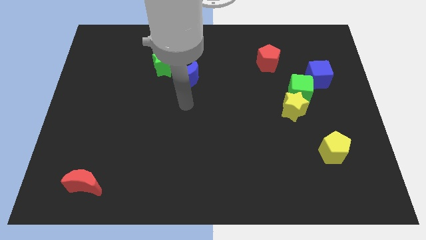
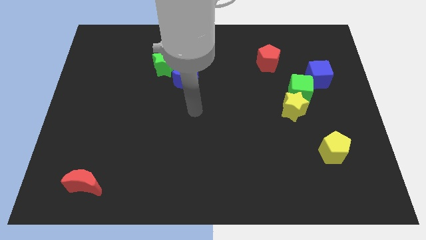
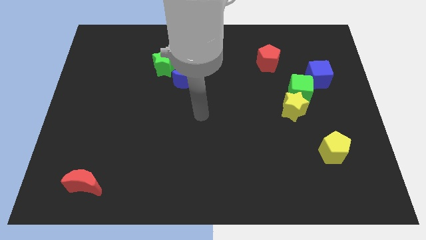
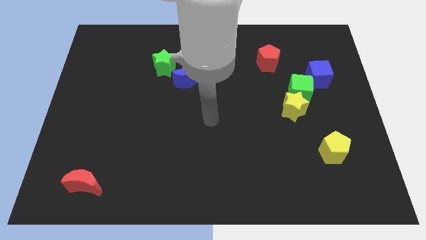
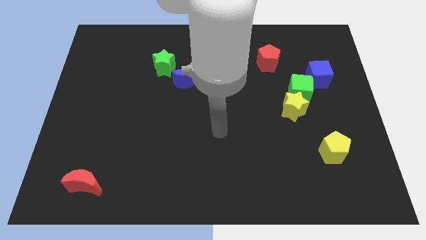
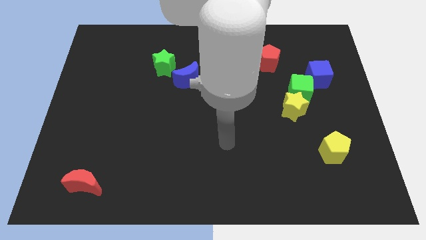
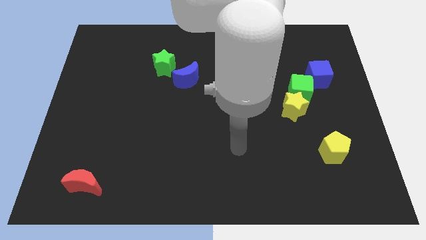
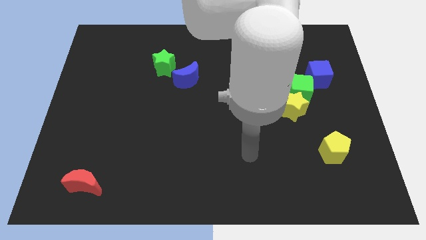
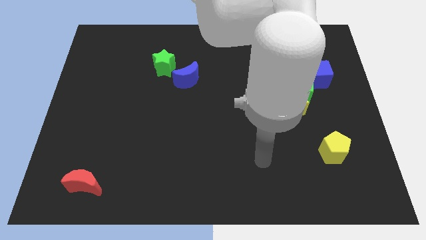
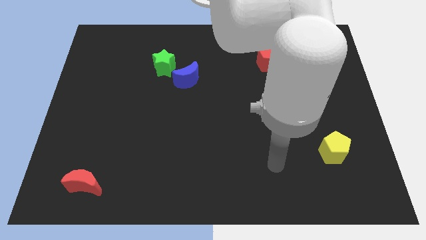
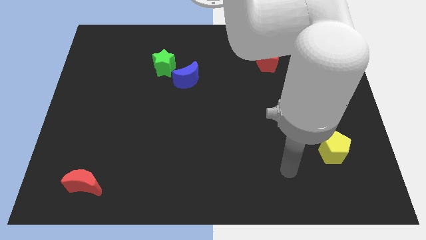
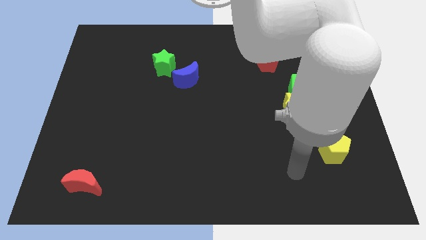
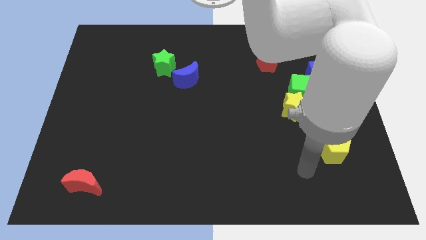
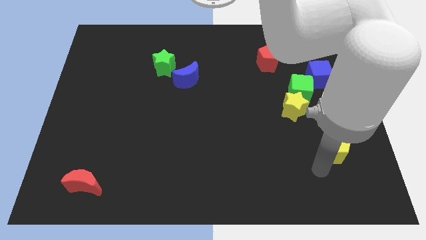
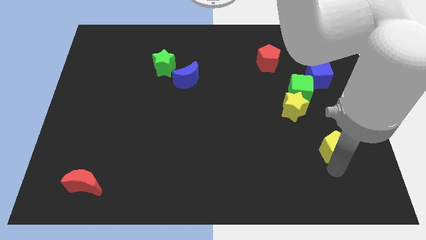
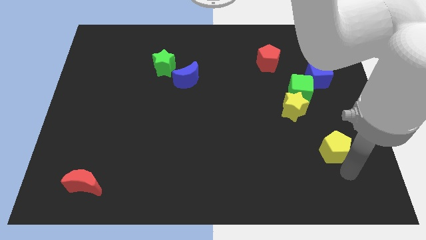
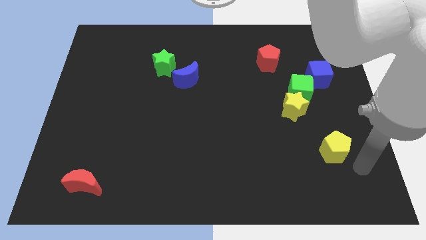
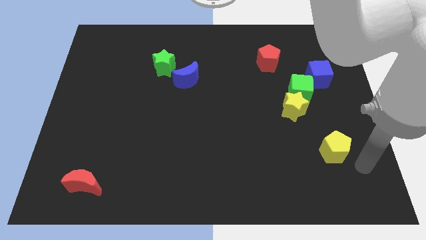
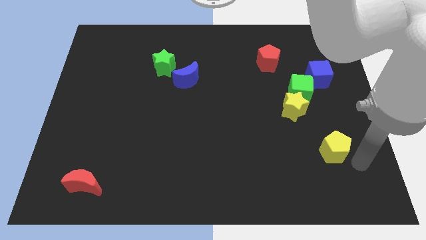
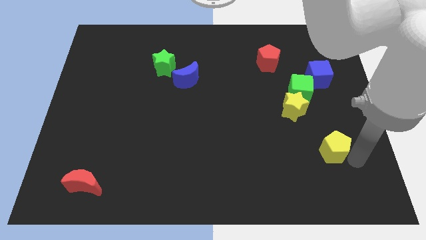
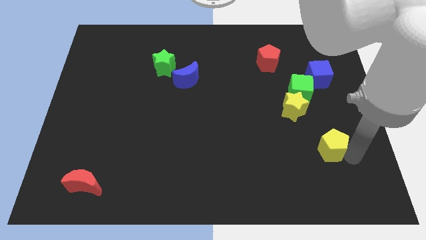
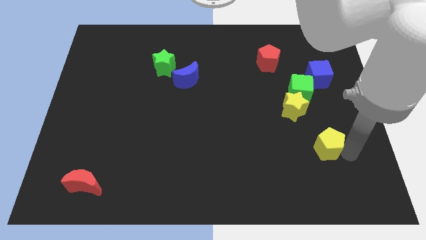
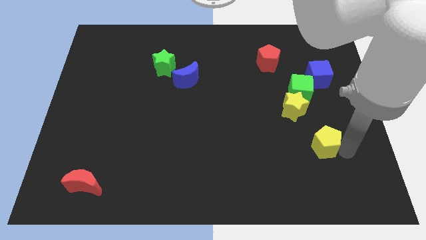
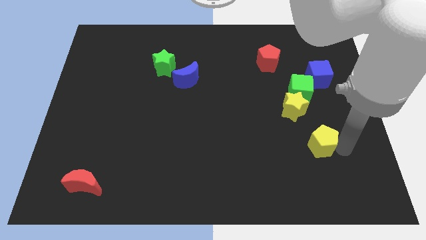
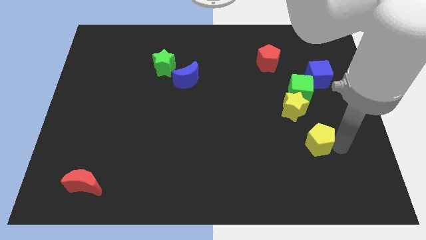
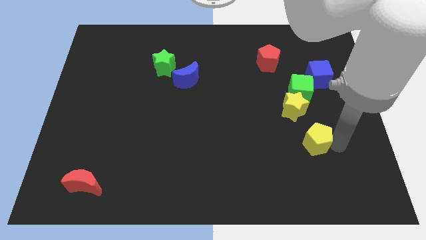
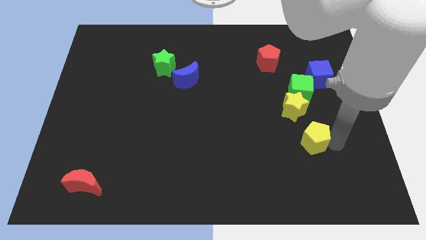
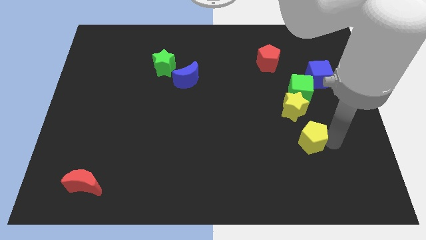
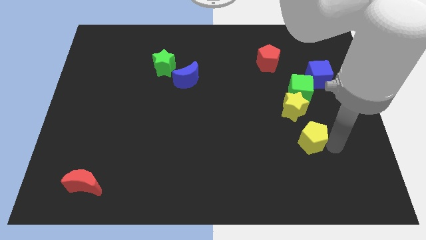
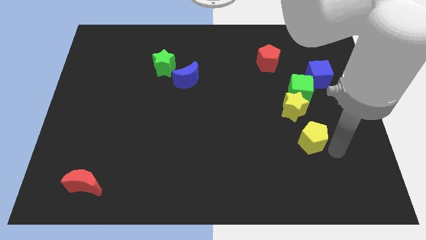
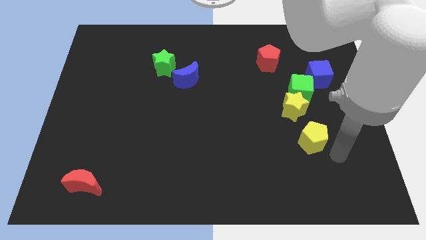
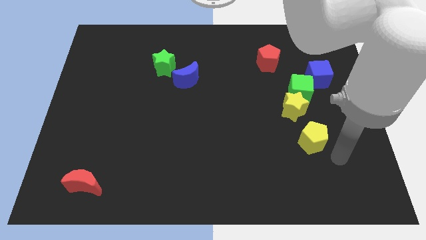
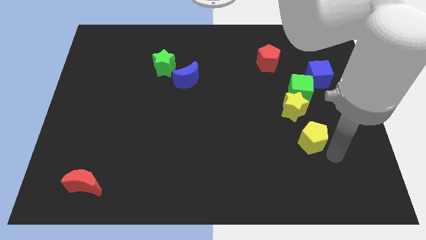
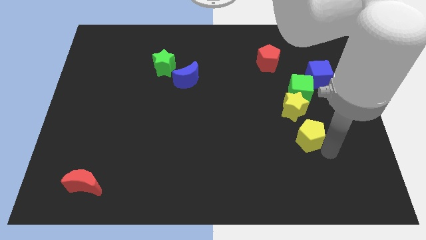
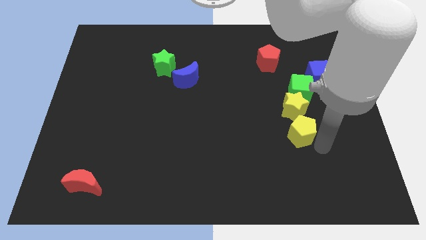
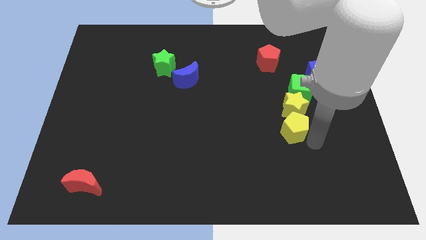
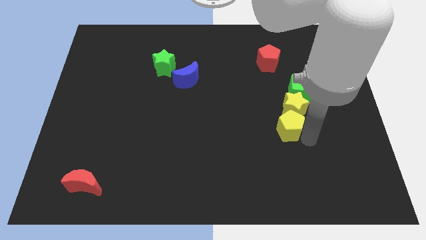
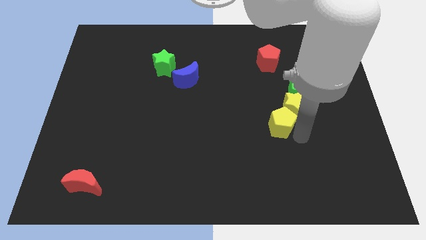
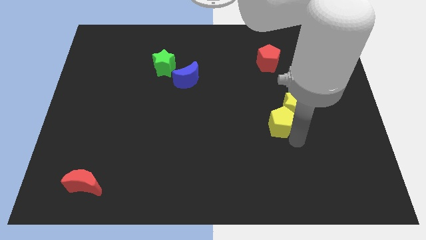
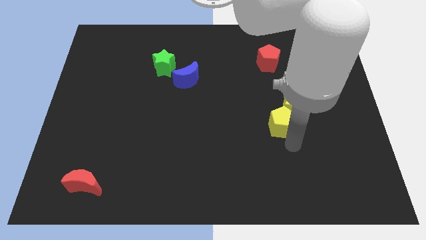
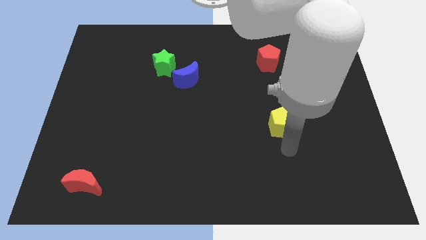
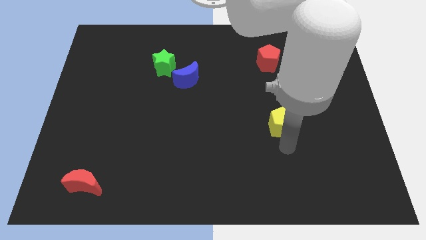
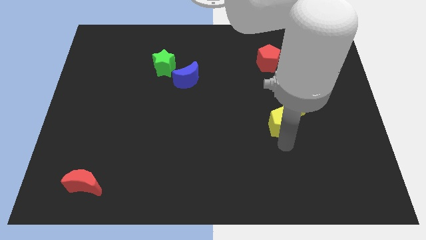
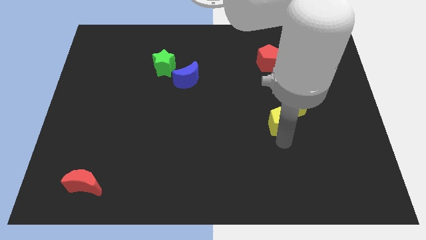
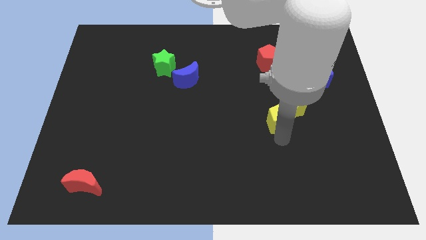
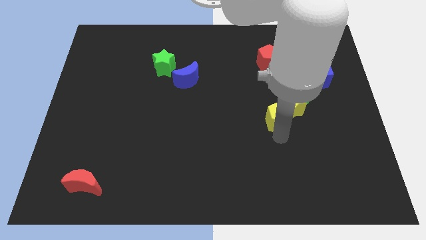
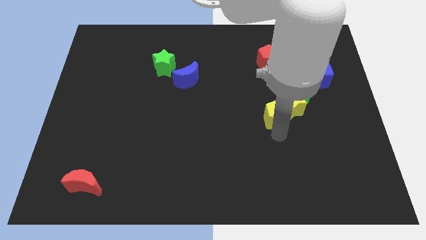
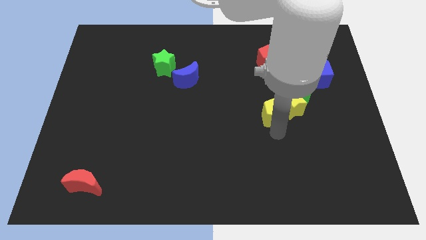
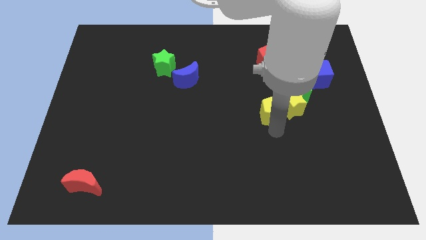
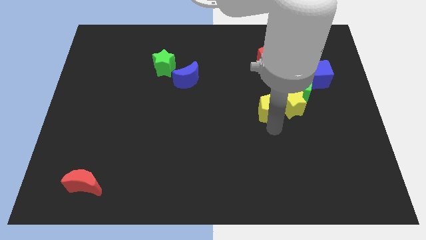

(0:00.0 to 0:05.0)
slide the yellow pentagon to the bottom of the red pentagon

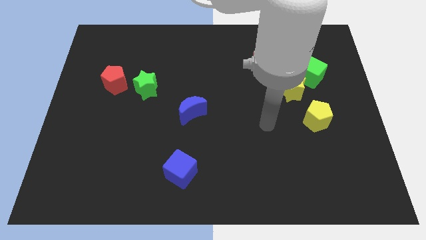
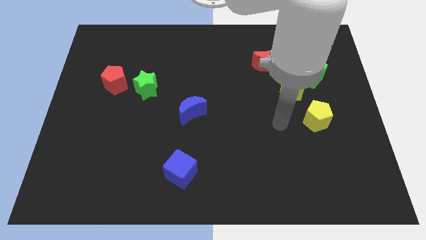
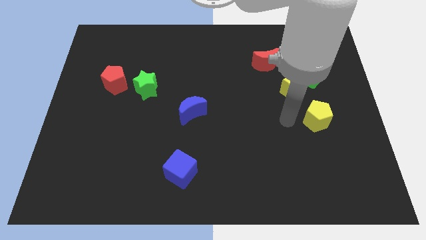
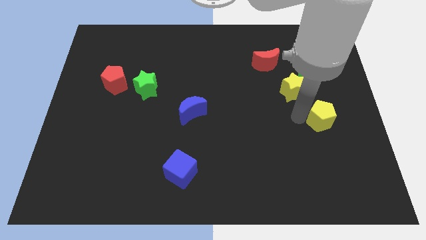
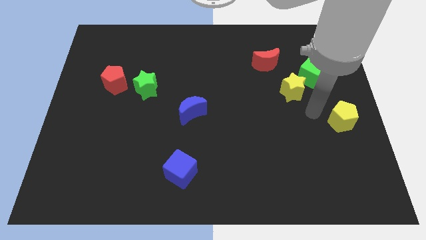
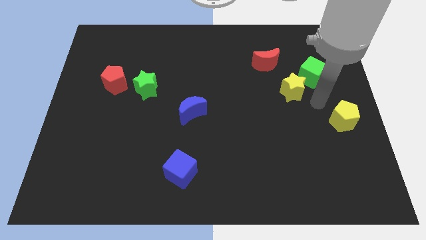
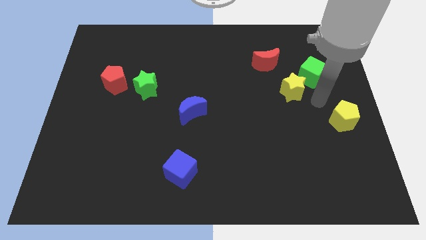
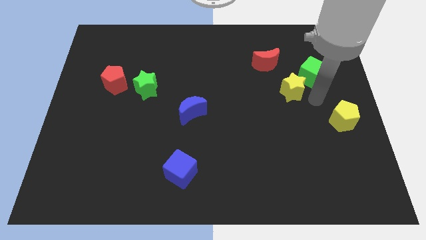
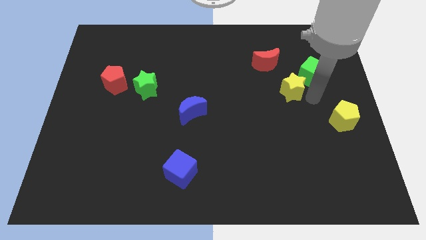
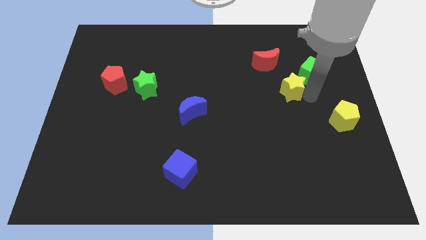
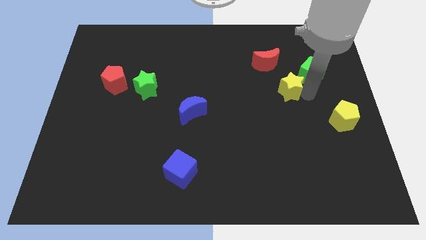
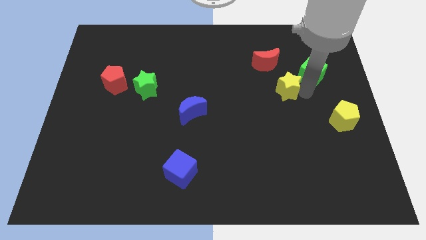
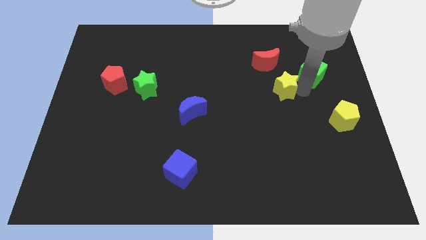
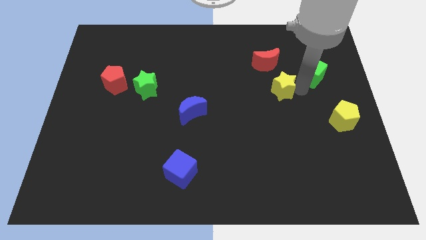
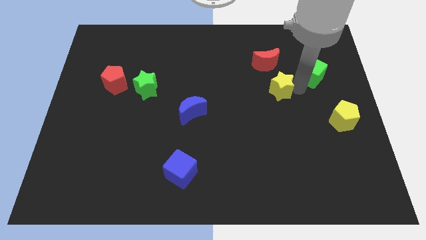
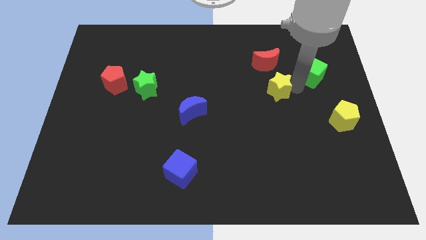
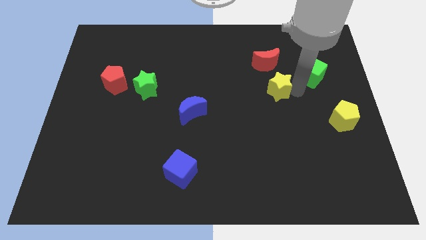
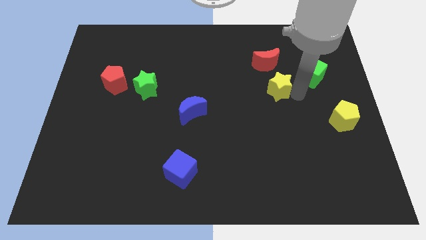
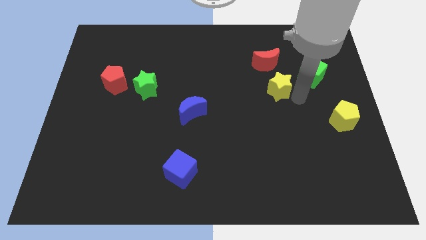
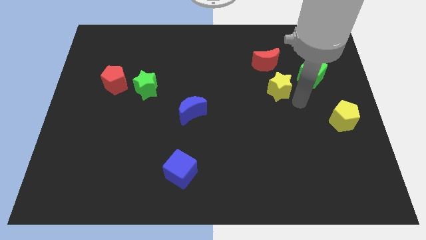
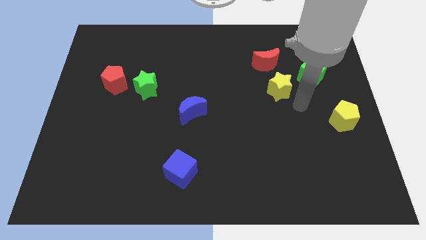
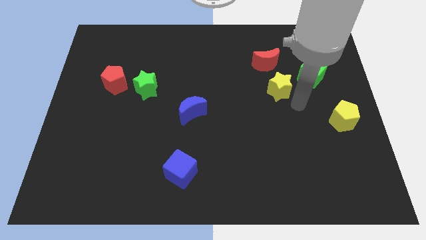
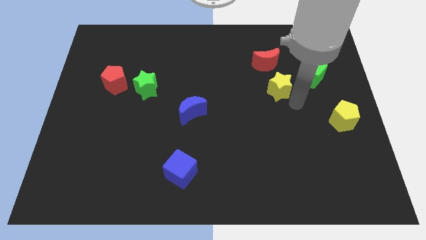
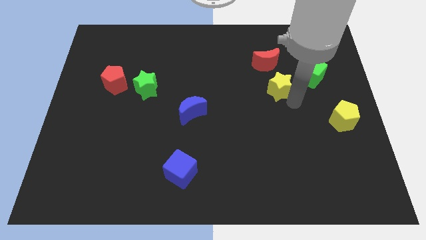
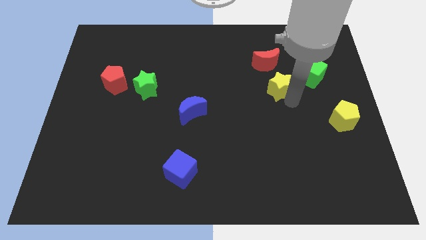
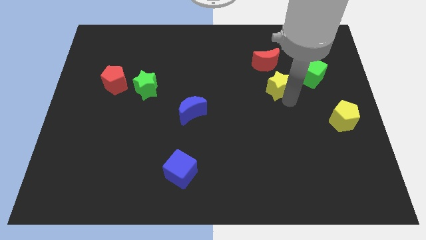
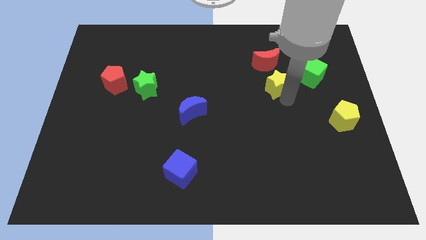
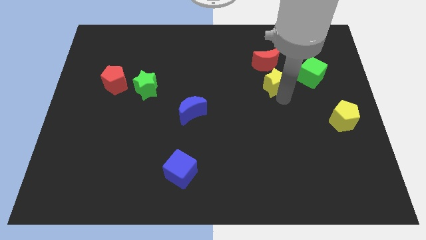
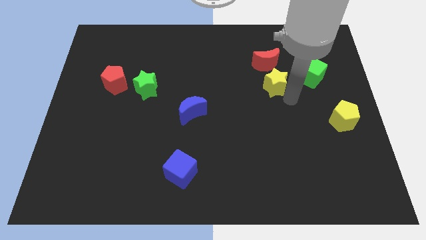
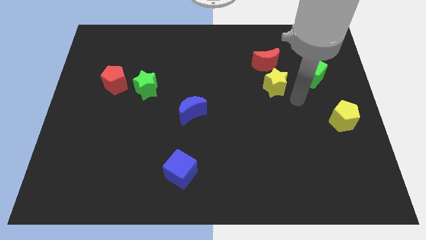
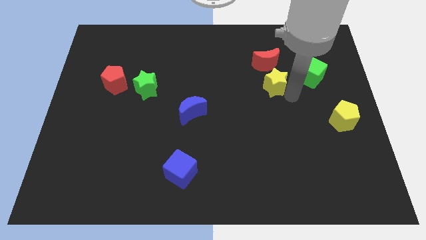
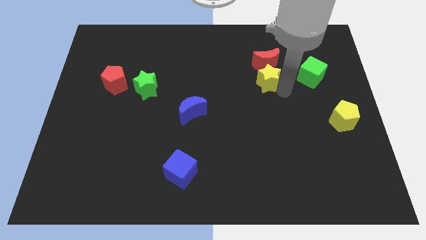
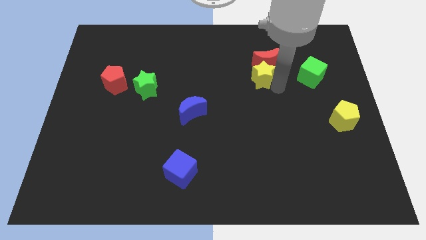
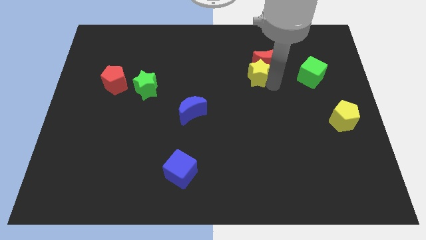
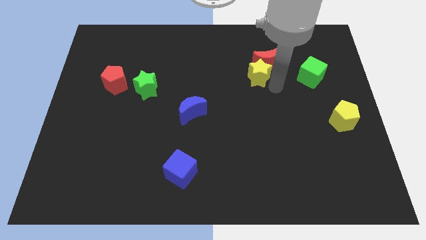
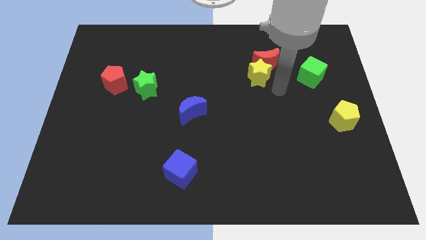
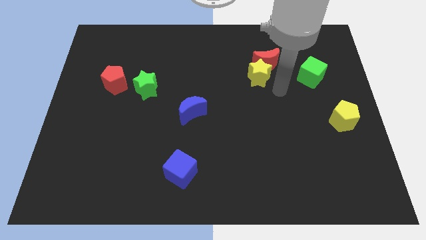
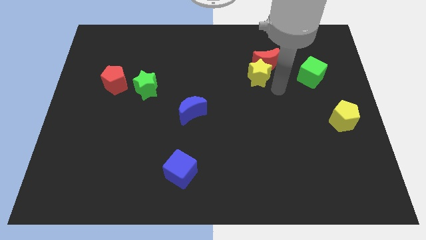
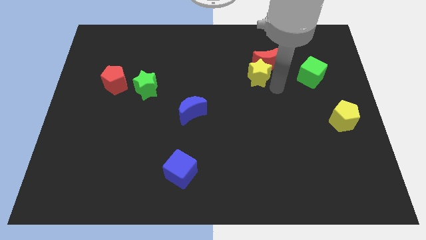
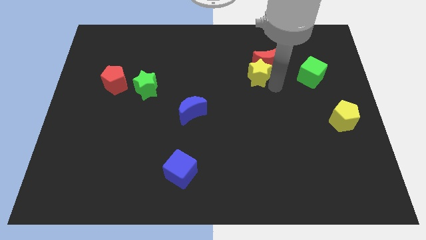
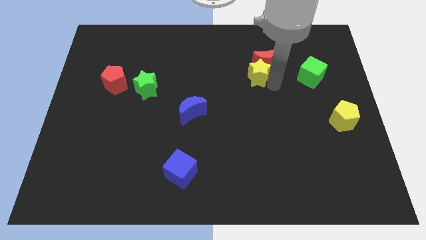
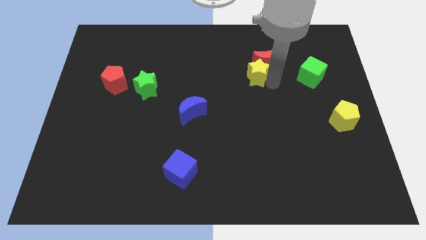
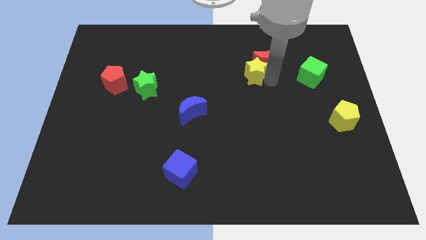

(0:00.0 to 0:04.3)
push the yellow star just left of the red moon
